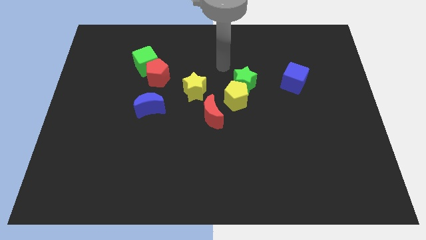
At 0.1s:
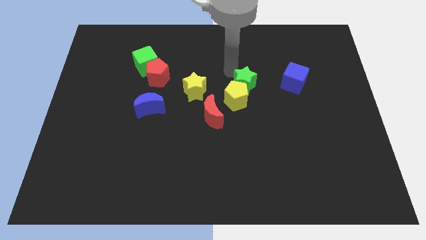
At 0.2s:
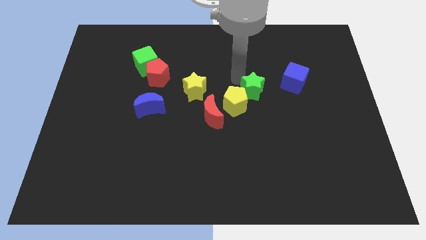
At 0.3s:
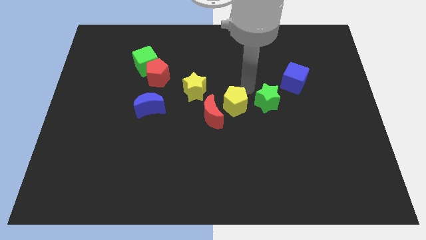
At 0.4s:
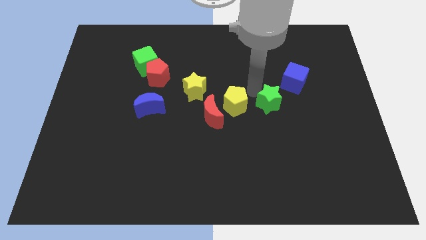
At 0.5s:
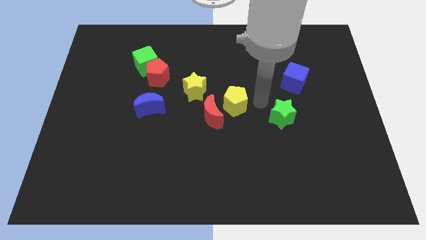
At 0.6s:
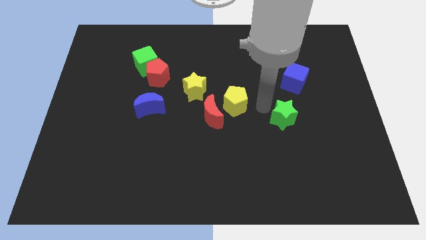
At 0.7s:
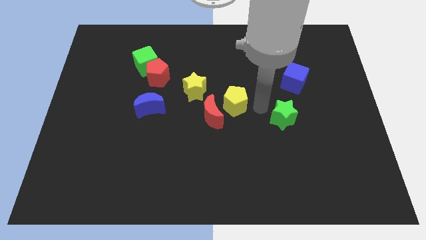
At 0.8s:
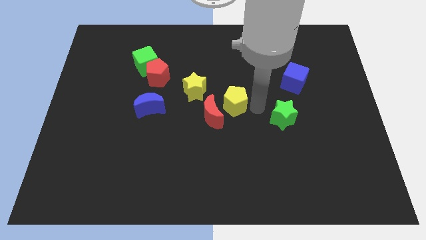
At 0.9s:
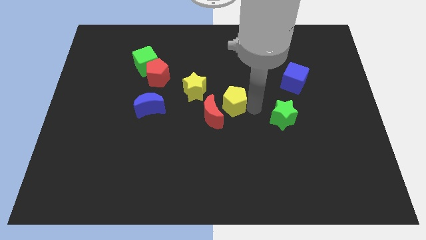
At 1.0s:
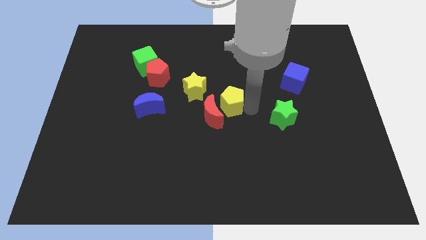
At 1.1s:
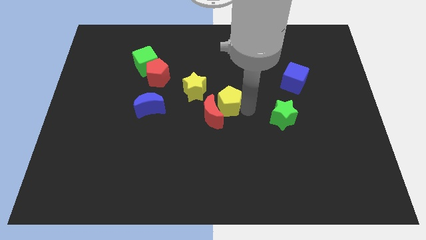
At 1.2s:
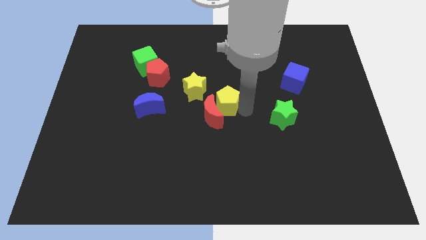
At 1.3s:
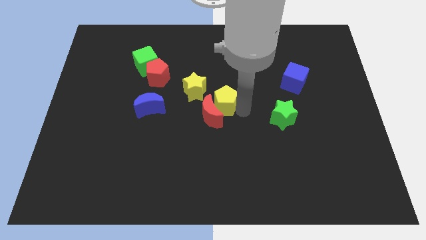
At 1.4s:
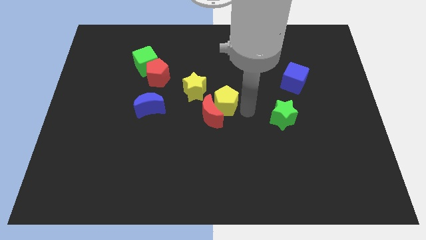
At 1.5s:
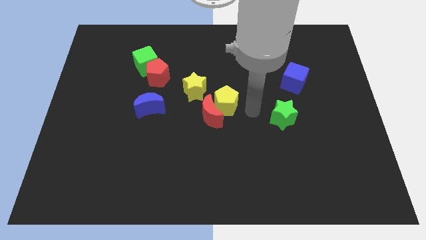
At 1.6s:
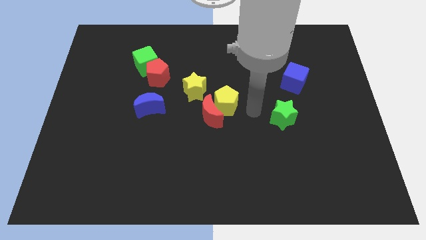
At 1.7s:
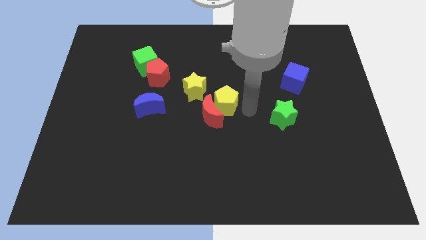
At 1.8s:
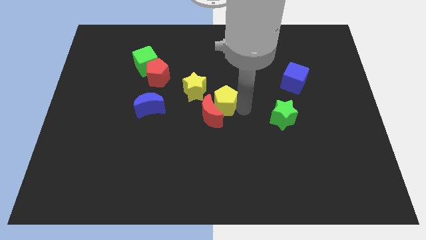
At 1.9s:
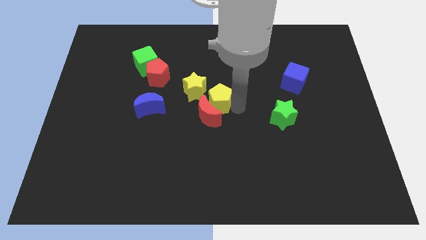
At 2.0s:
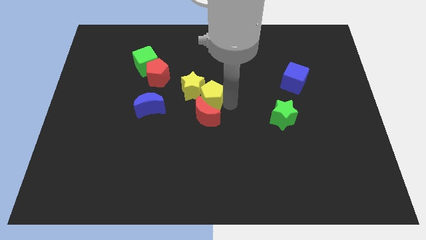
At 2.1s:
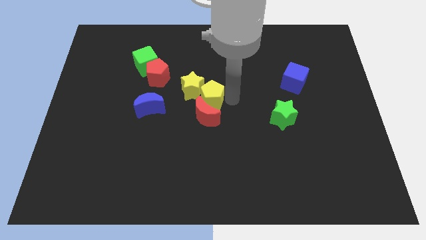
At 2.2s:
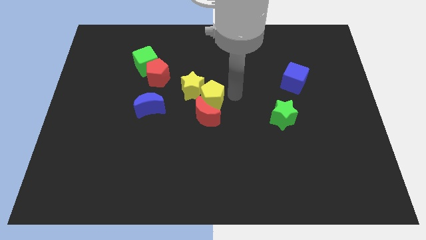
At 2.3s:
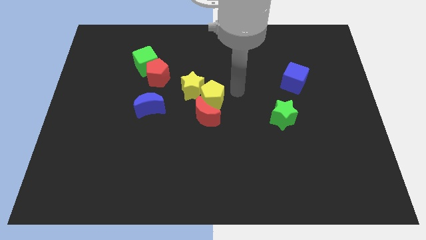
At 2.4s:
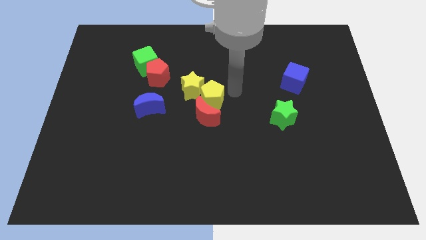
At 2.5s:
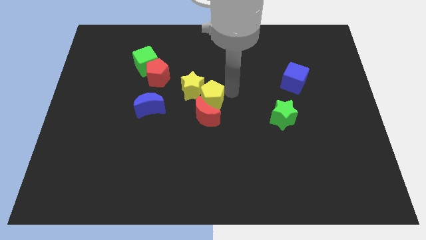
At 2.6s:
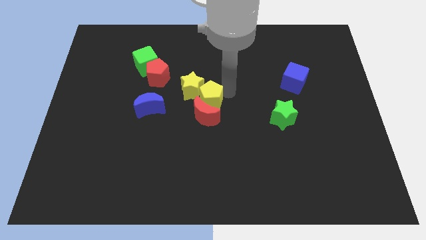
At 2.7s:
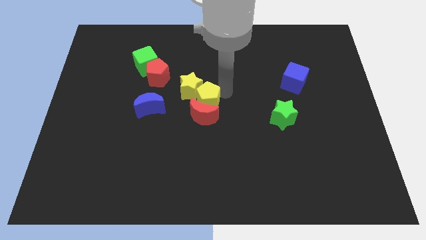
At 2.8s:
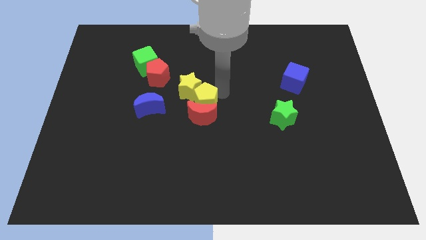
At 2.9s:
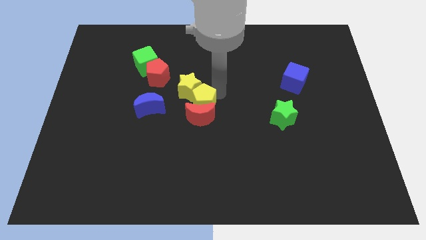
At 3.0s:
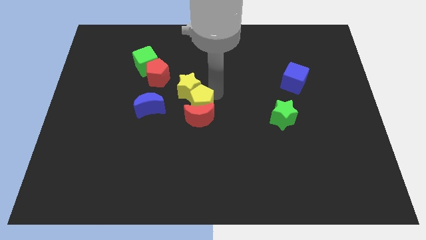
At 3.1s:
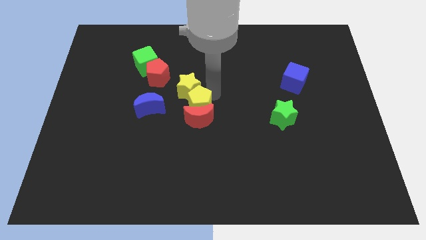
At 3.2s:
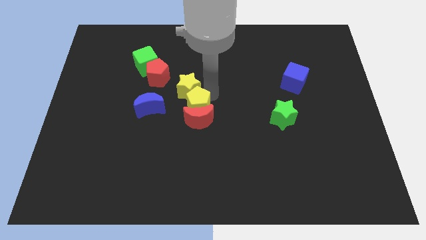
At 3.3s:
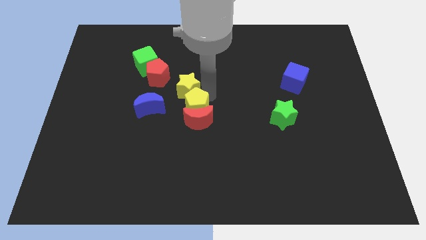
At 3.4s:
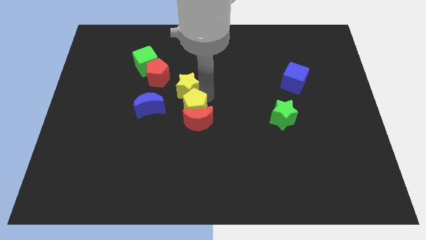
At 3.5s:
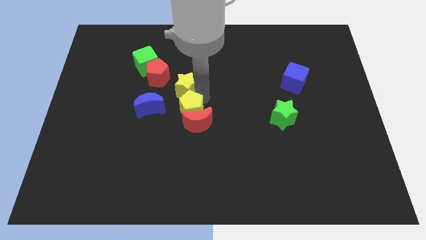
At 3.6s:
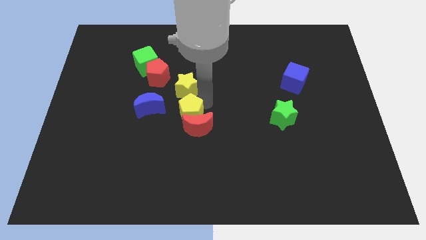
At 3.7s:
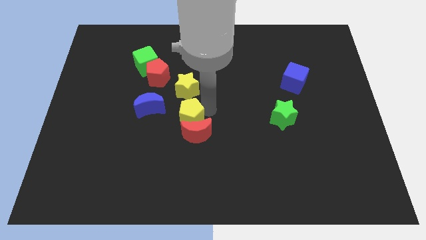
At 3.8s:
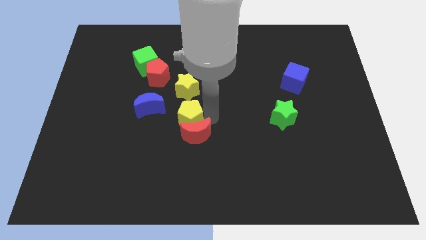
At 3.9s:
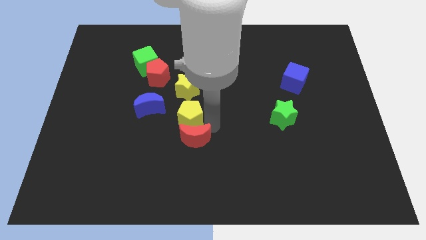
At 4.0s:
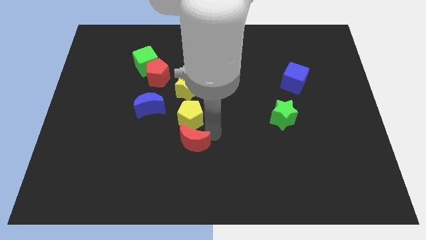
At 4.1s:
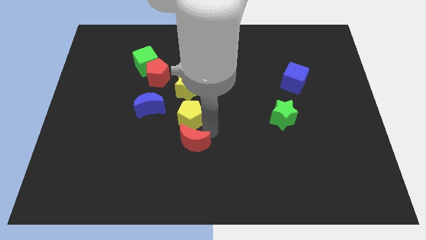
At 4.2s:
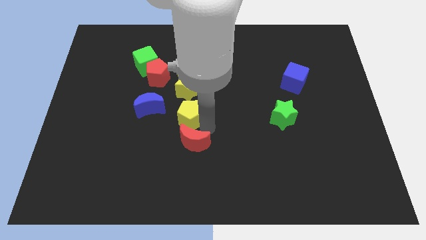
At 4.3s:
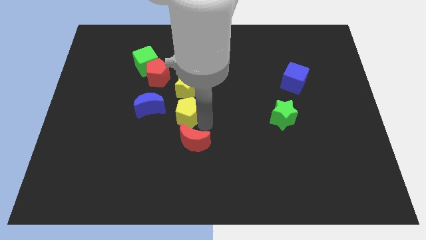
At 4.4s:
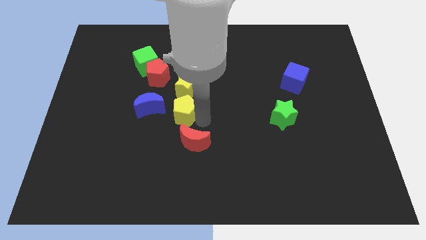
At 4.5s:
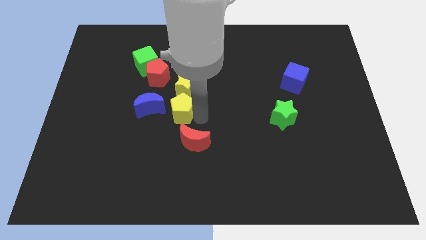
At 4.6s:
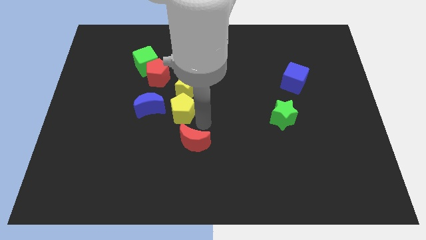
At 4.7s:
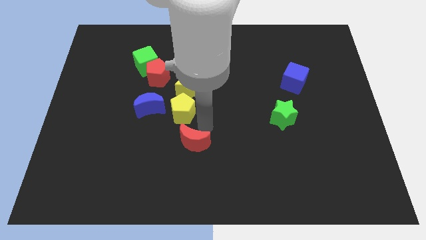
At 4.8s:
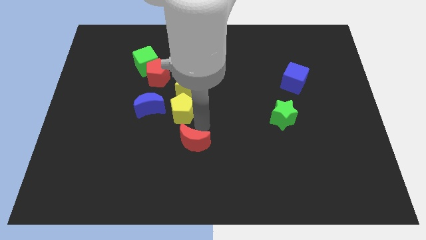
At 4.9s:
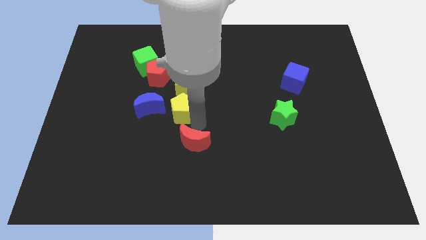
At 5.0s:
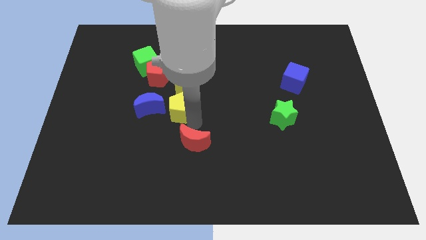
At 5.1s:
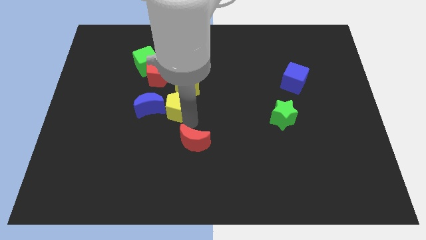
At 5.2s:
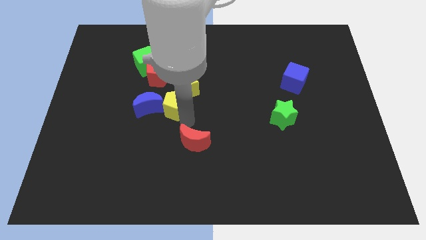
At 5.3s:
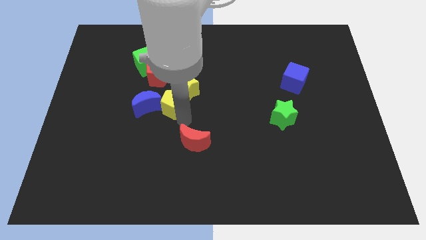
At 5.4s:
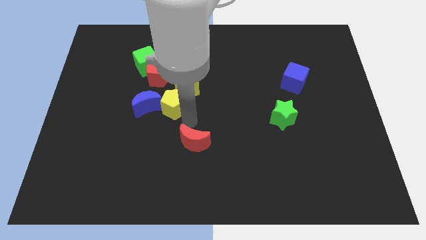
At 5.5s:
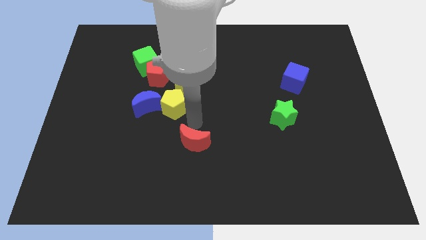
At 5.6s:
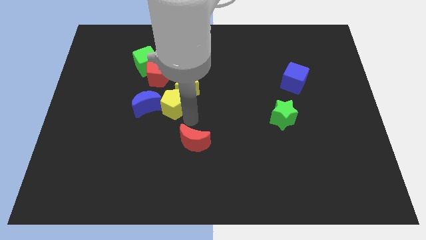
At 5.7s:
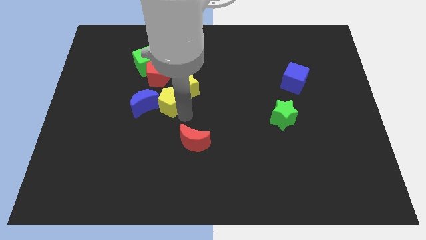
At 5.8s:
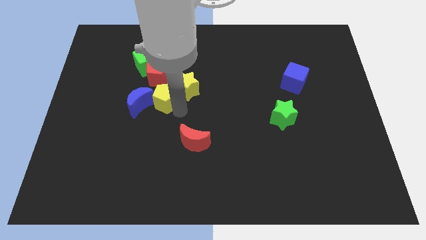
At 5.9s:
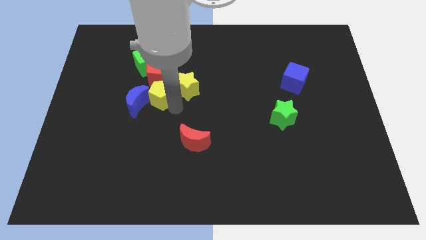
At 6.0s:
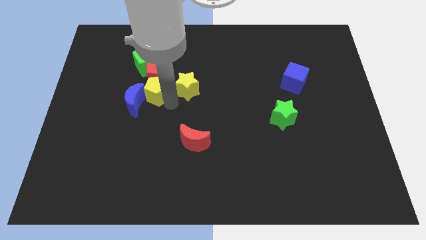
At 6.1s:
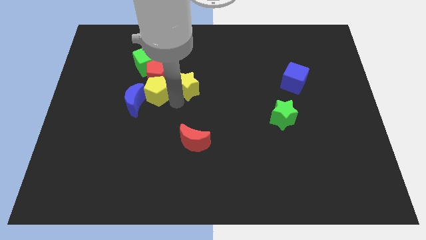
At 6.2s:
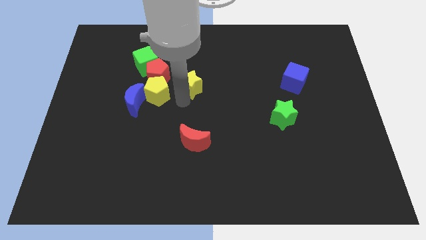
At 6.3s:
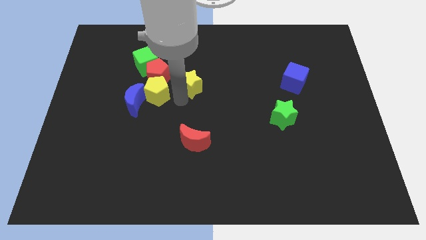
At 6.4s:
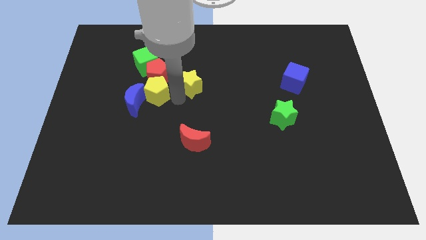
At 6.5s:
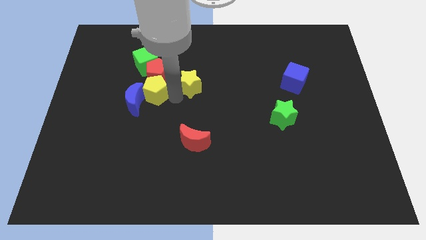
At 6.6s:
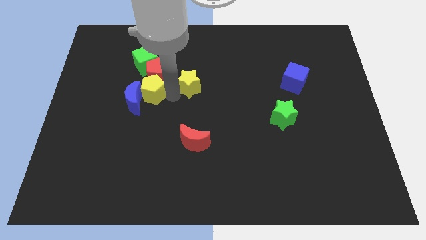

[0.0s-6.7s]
push the yellow pentagon left

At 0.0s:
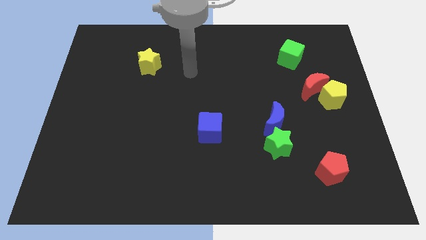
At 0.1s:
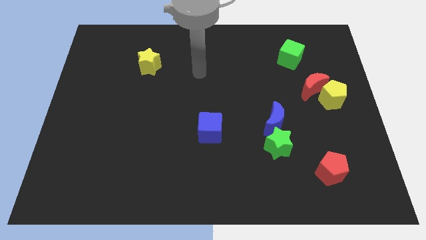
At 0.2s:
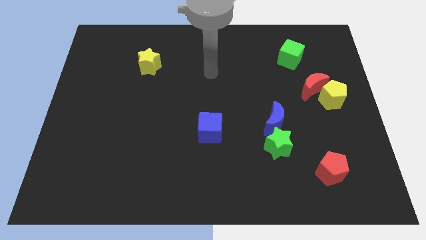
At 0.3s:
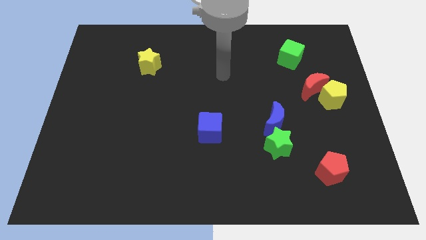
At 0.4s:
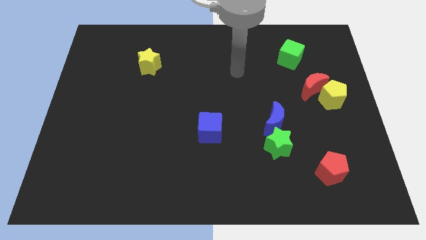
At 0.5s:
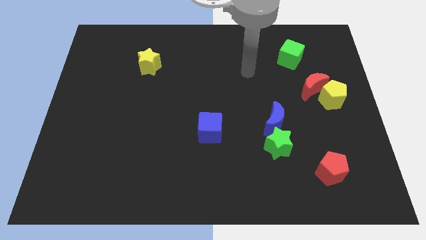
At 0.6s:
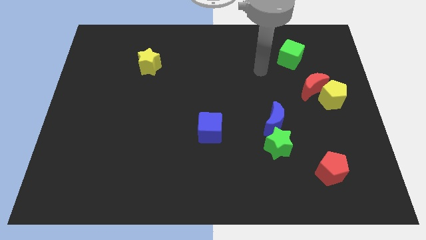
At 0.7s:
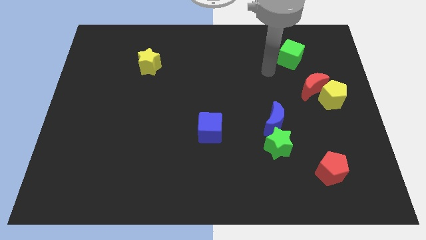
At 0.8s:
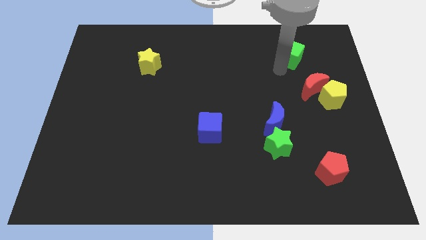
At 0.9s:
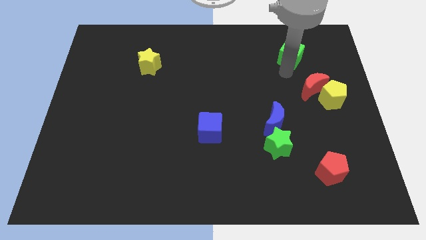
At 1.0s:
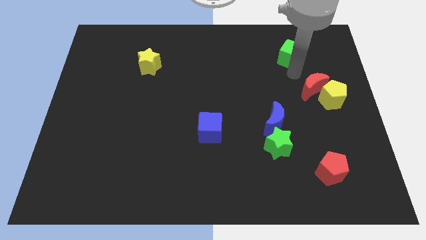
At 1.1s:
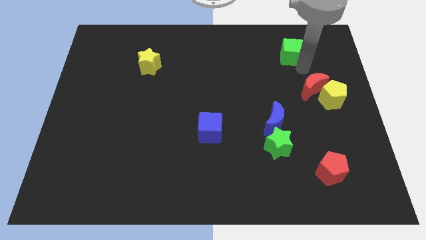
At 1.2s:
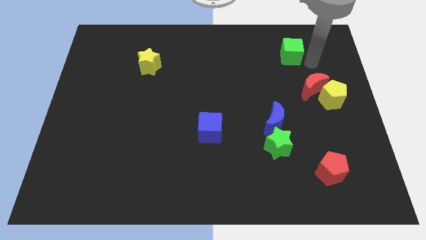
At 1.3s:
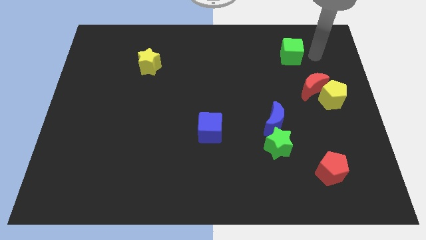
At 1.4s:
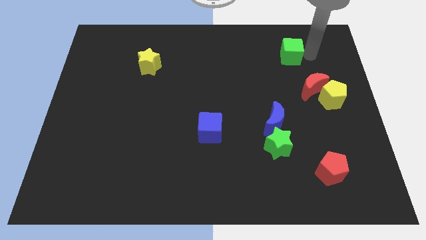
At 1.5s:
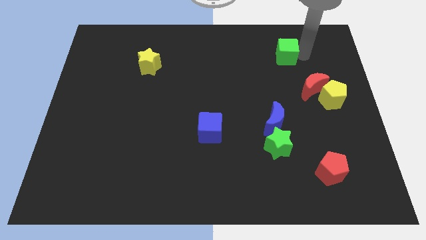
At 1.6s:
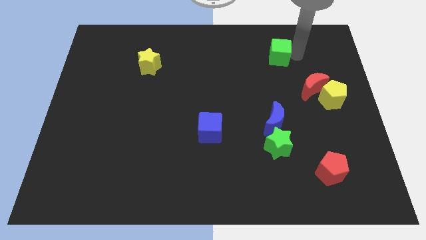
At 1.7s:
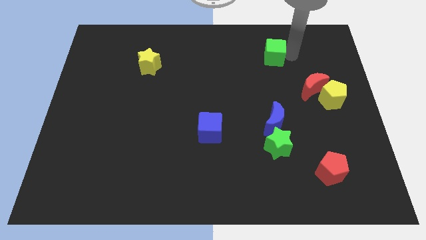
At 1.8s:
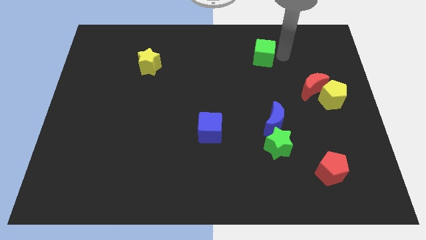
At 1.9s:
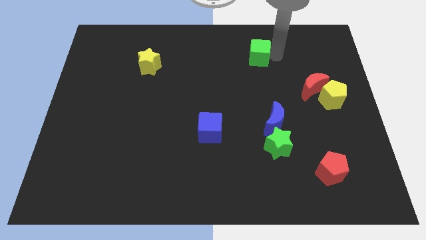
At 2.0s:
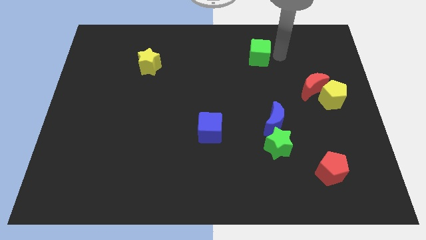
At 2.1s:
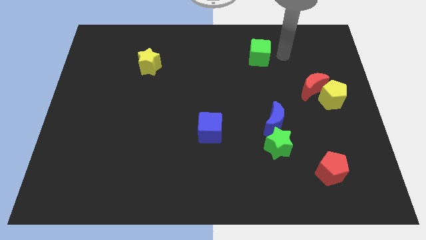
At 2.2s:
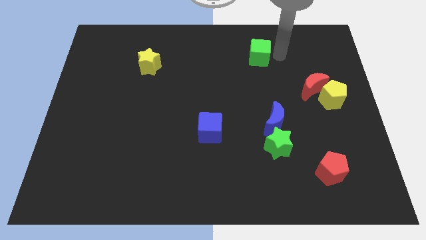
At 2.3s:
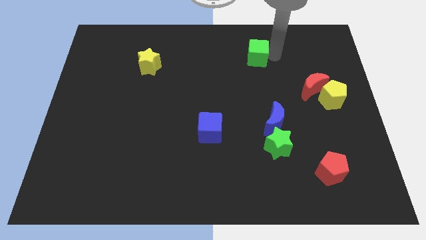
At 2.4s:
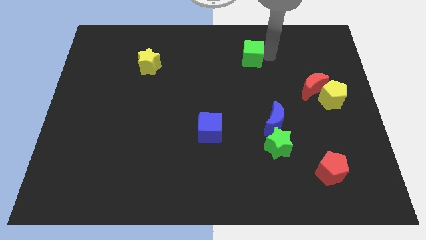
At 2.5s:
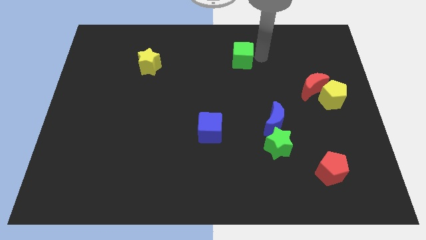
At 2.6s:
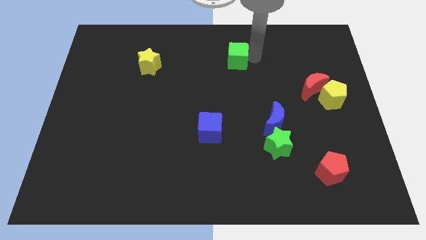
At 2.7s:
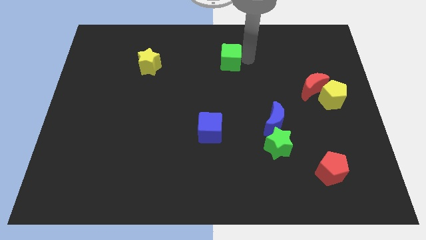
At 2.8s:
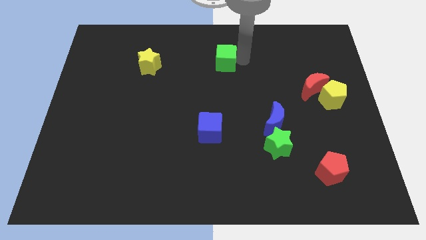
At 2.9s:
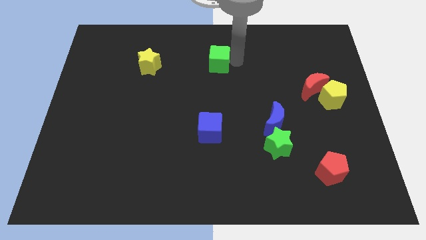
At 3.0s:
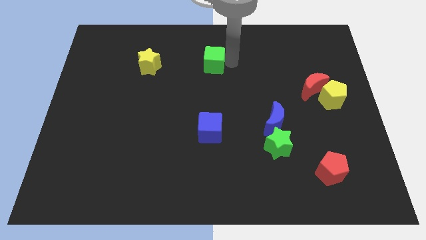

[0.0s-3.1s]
push the green cube to the left
